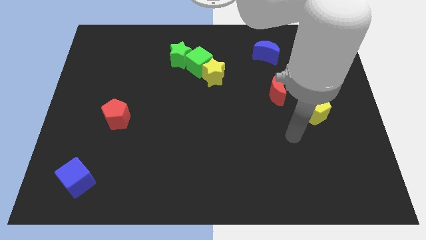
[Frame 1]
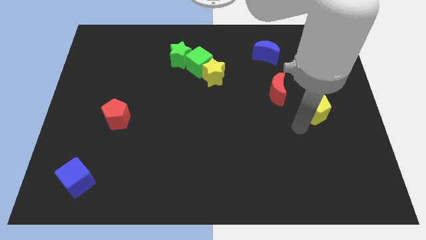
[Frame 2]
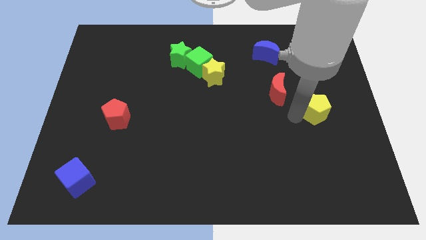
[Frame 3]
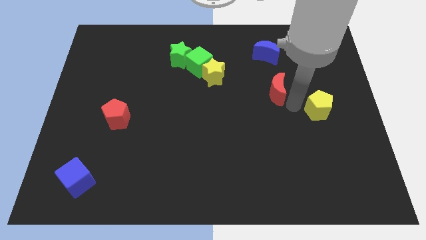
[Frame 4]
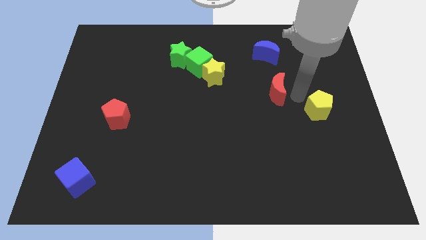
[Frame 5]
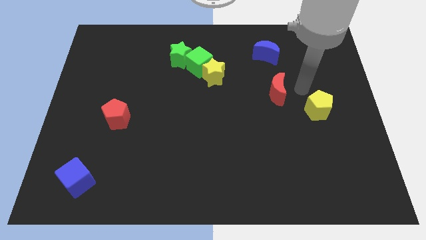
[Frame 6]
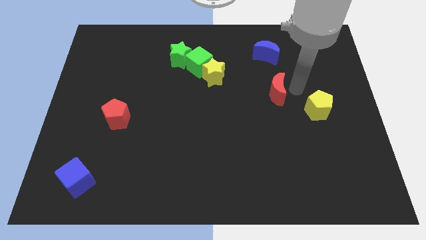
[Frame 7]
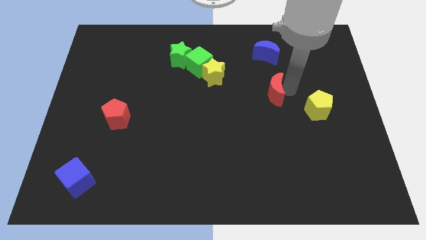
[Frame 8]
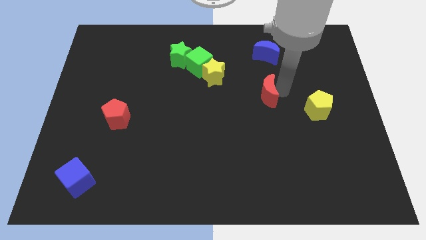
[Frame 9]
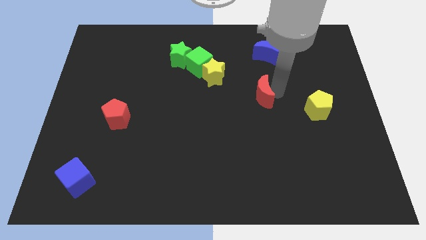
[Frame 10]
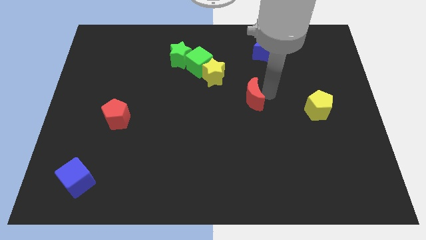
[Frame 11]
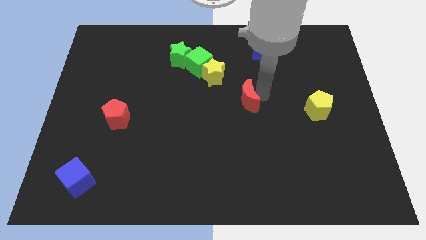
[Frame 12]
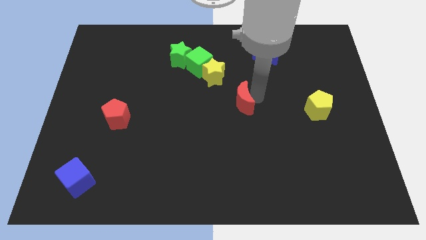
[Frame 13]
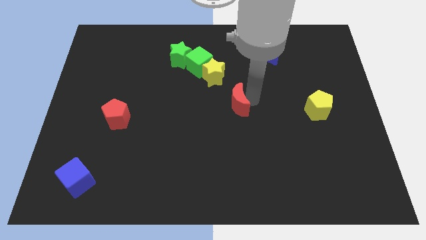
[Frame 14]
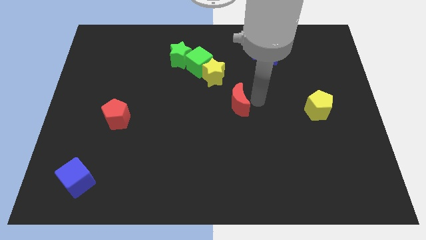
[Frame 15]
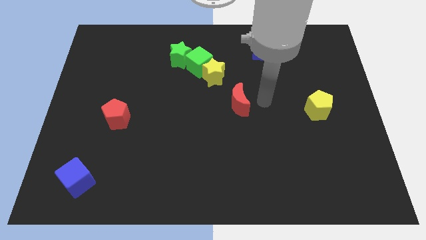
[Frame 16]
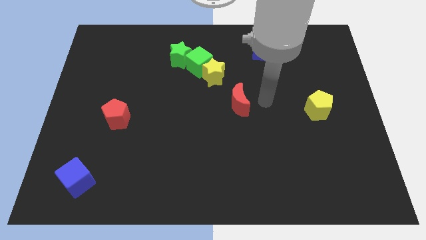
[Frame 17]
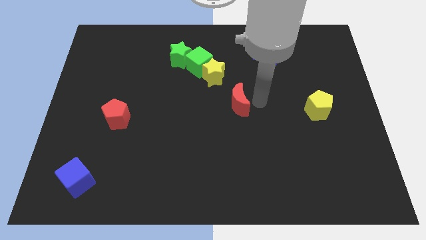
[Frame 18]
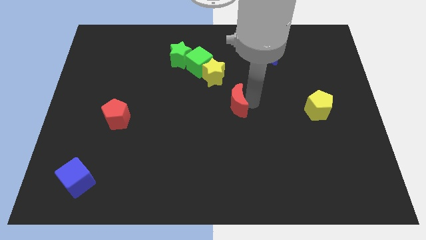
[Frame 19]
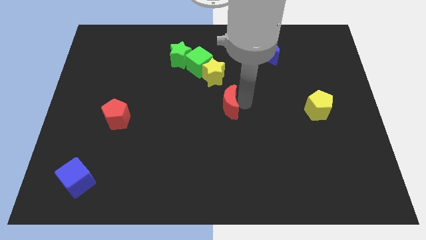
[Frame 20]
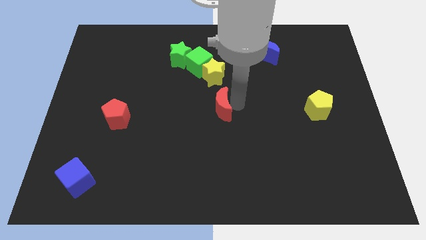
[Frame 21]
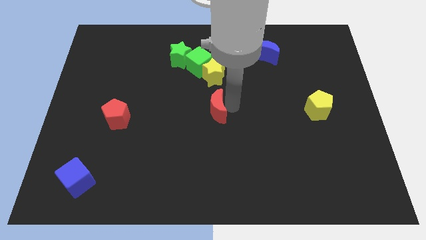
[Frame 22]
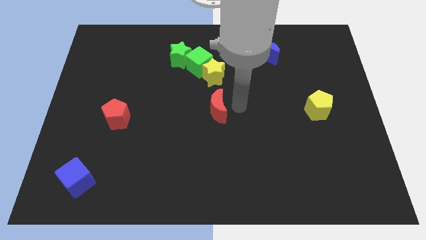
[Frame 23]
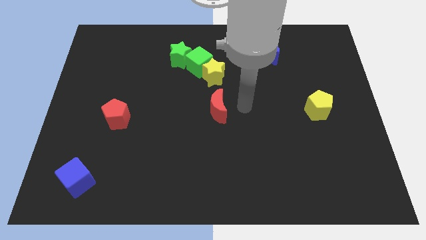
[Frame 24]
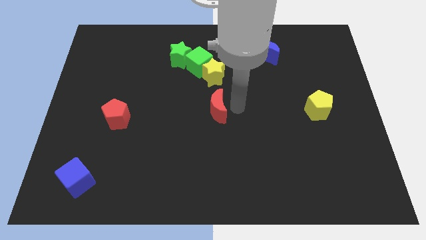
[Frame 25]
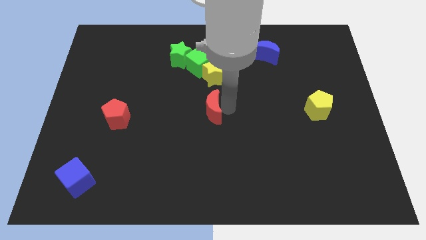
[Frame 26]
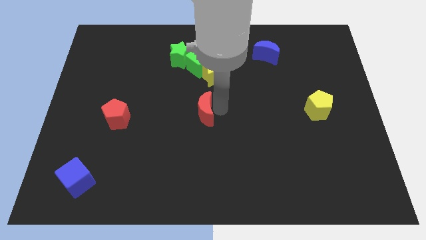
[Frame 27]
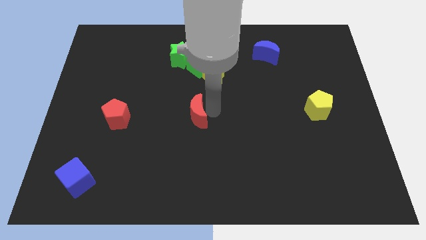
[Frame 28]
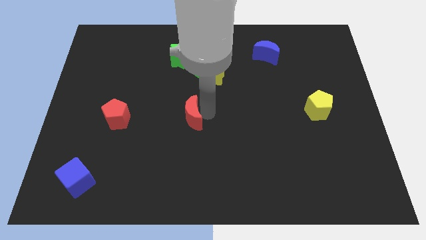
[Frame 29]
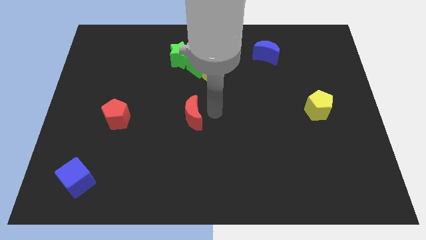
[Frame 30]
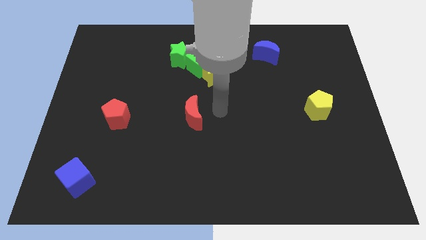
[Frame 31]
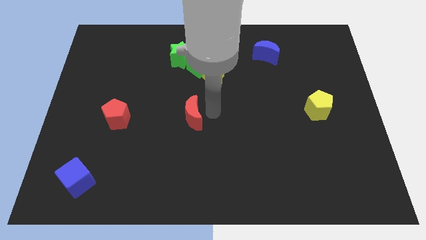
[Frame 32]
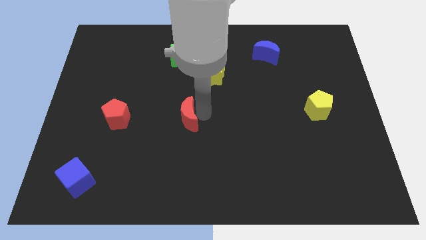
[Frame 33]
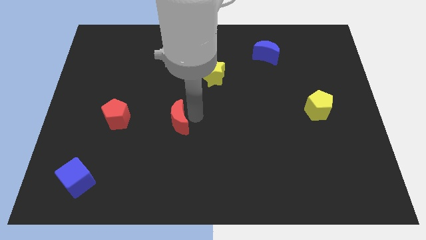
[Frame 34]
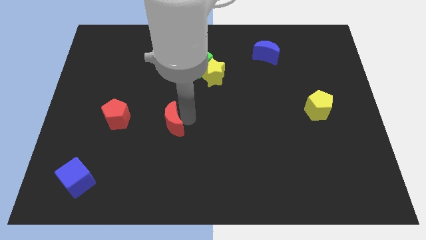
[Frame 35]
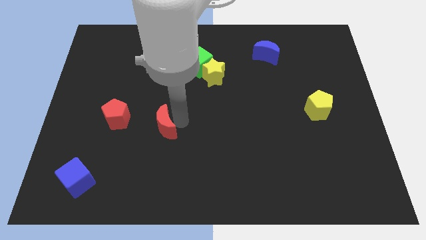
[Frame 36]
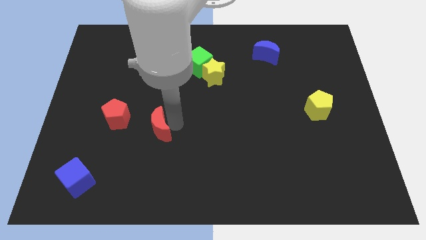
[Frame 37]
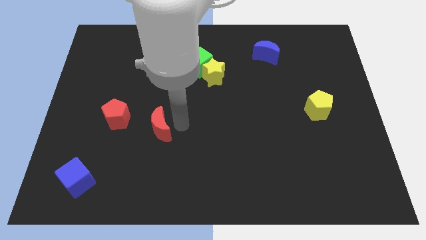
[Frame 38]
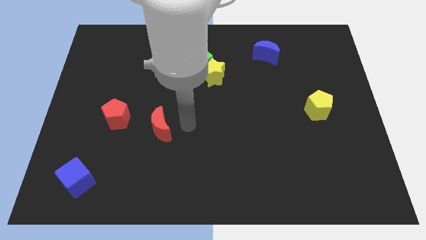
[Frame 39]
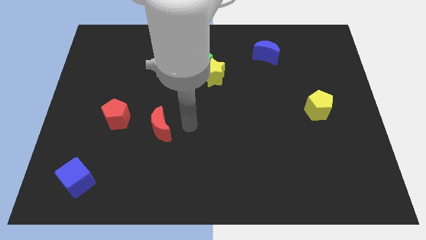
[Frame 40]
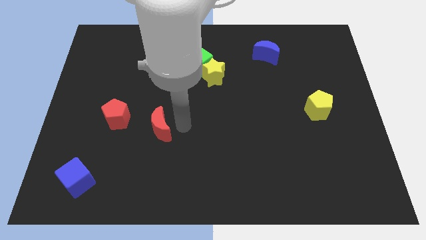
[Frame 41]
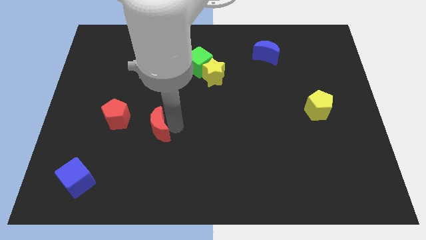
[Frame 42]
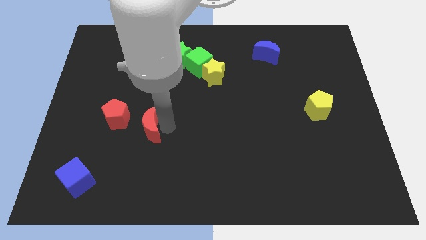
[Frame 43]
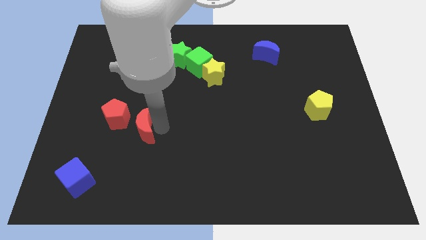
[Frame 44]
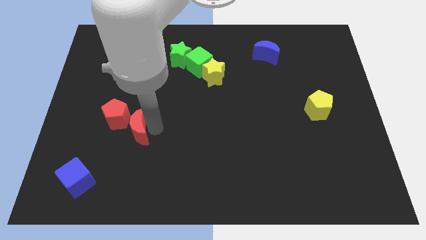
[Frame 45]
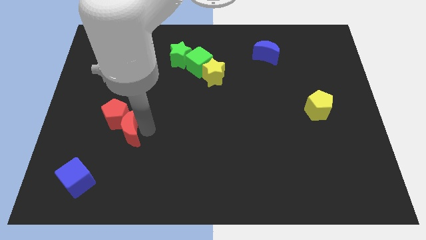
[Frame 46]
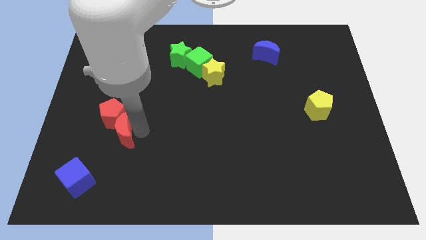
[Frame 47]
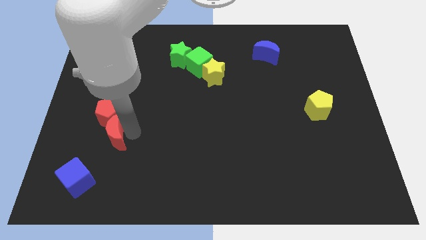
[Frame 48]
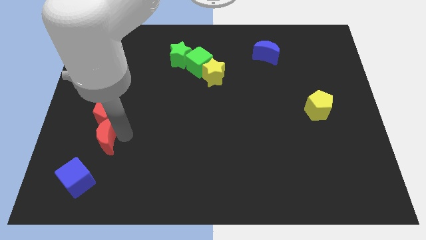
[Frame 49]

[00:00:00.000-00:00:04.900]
put the red moon diagonally down and to the left of the red pentagon

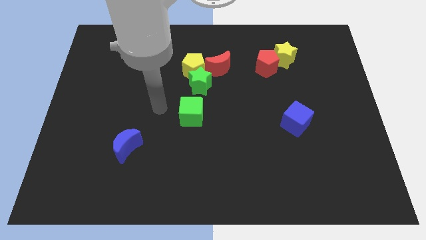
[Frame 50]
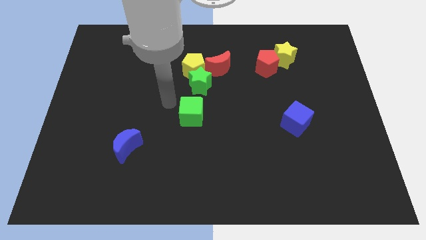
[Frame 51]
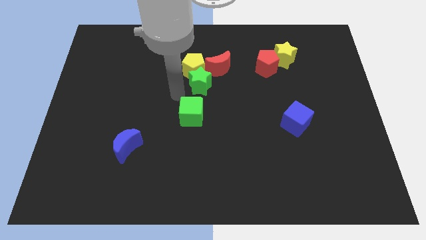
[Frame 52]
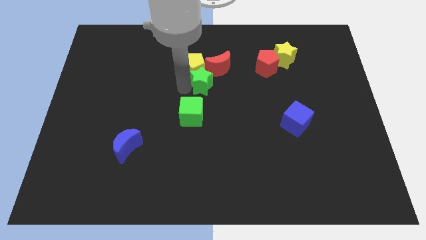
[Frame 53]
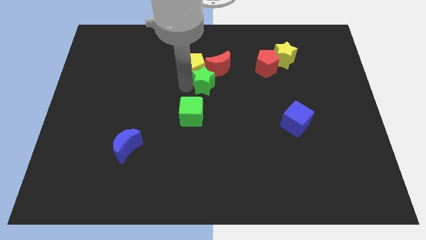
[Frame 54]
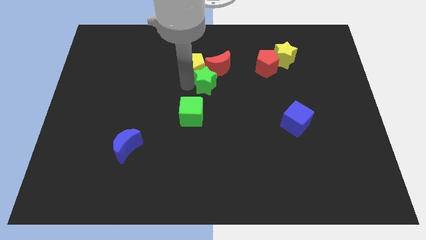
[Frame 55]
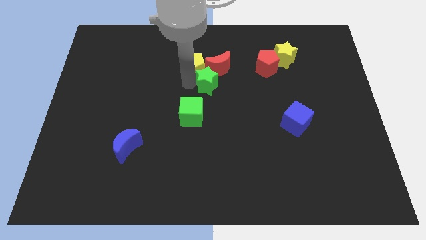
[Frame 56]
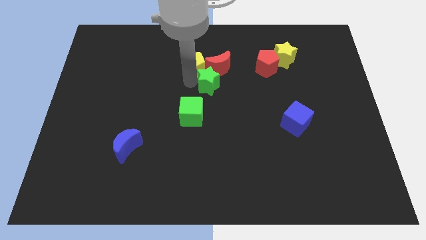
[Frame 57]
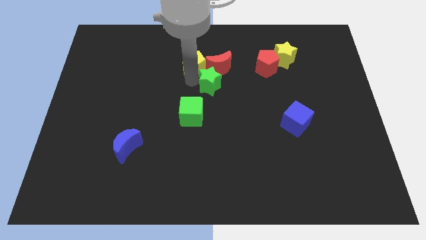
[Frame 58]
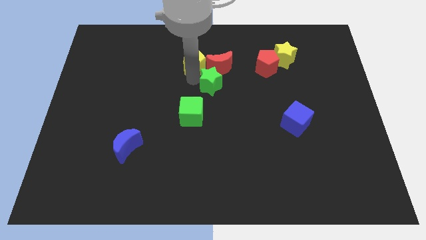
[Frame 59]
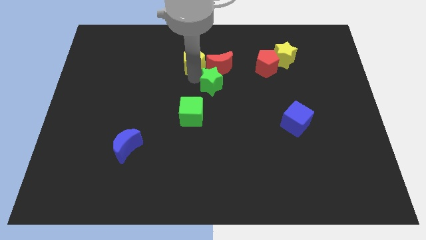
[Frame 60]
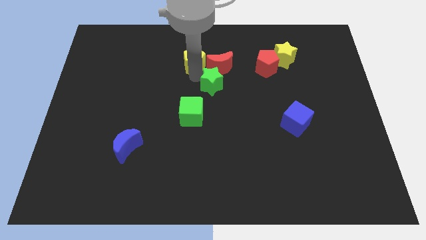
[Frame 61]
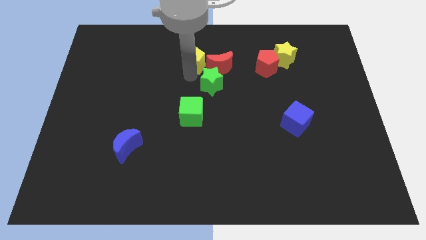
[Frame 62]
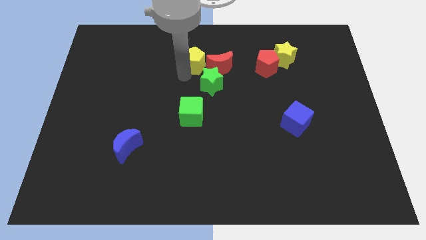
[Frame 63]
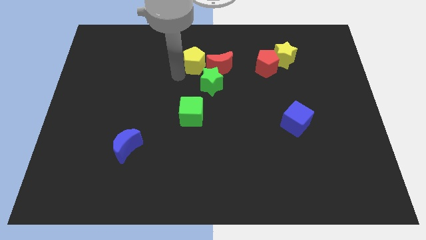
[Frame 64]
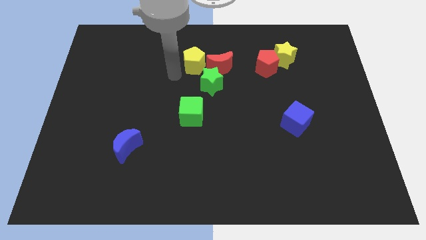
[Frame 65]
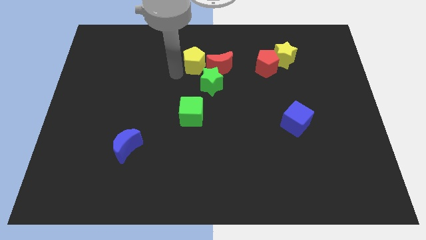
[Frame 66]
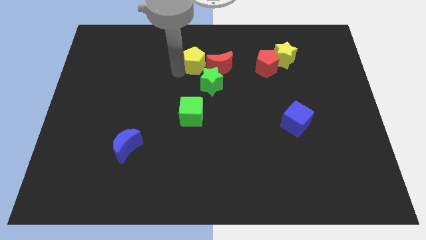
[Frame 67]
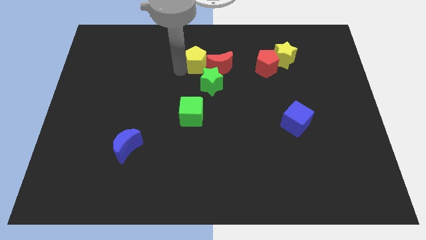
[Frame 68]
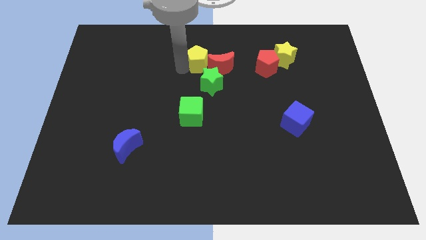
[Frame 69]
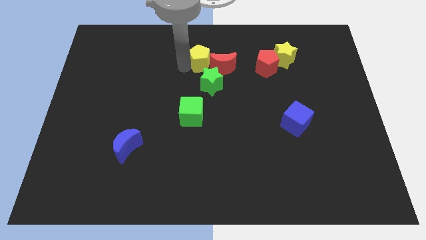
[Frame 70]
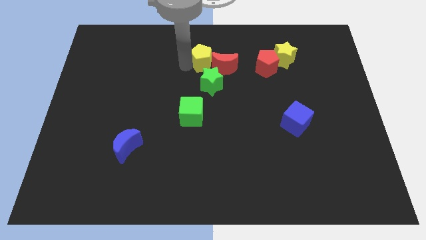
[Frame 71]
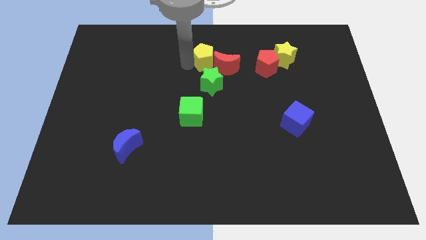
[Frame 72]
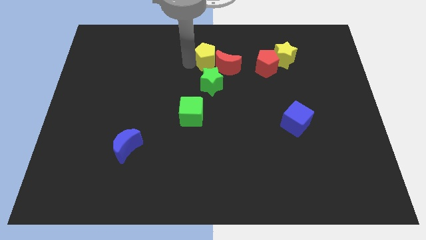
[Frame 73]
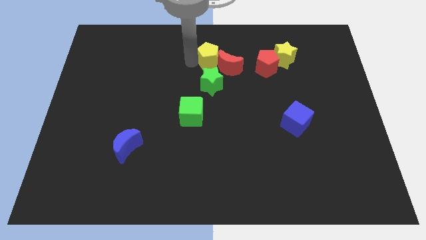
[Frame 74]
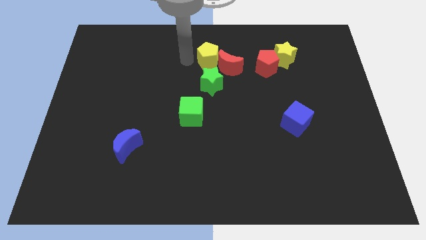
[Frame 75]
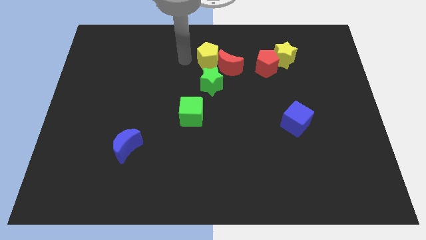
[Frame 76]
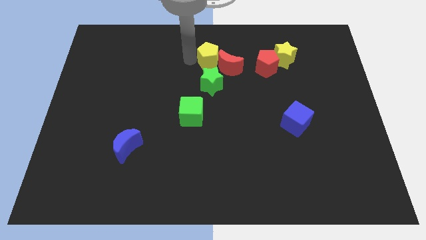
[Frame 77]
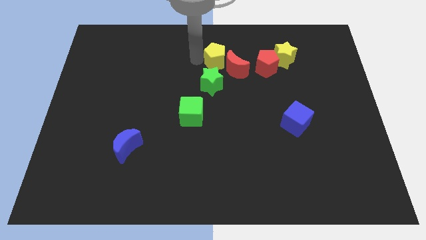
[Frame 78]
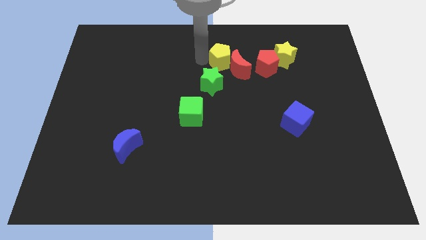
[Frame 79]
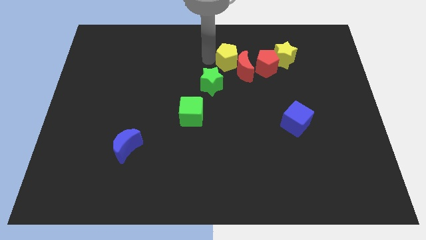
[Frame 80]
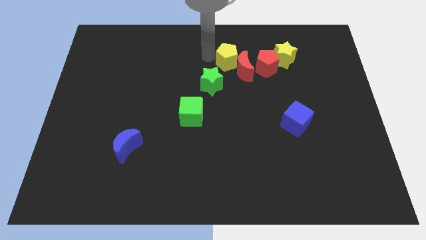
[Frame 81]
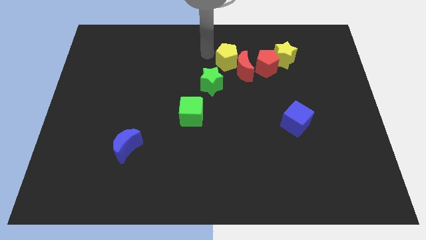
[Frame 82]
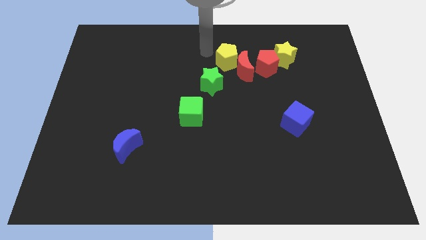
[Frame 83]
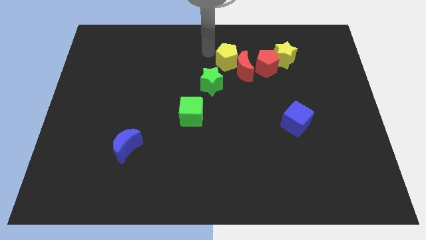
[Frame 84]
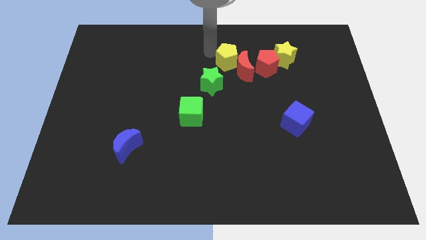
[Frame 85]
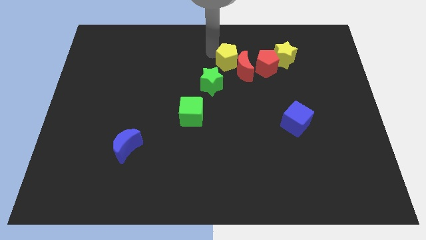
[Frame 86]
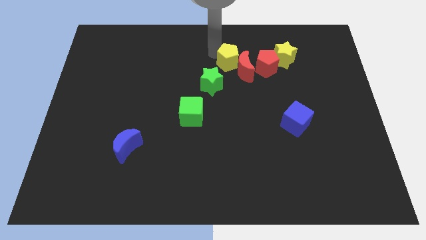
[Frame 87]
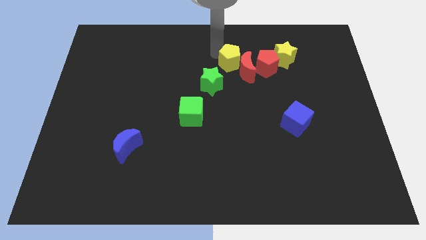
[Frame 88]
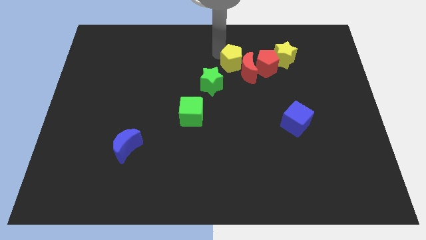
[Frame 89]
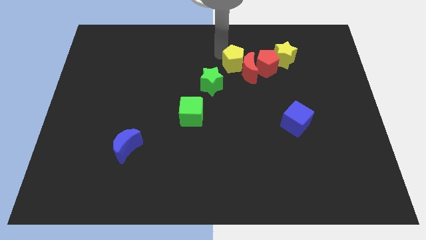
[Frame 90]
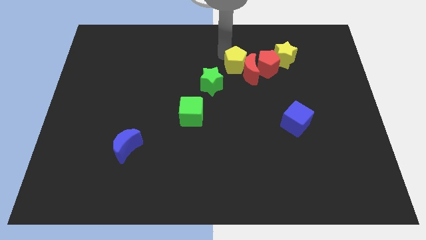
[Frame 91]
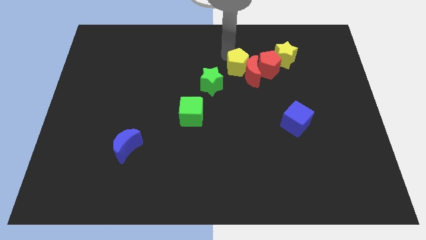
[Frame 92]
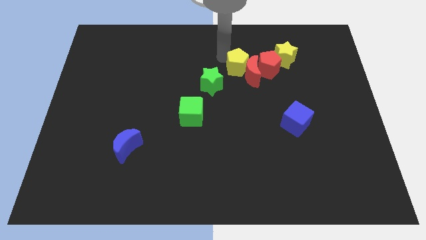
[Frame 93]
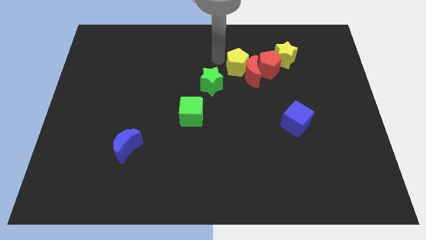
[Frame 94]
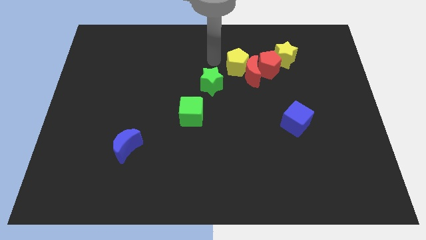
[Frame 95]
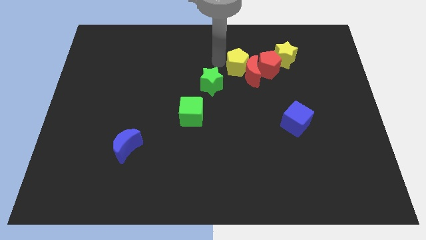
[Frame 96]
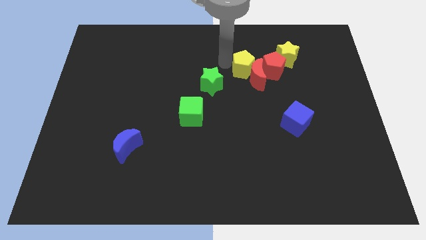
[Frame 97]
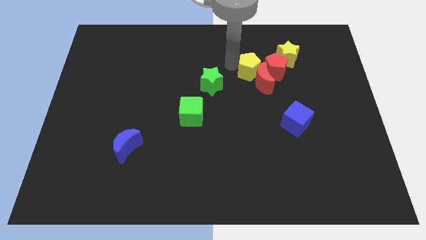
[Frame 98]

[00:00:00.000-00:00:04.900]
slide the yellow pentagon to the bottom left side of the yellow star
